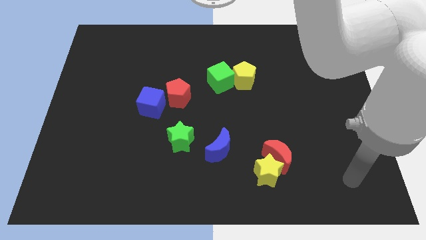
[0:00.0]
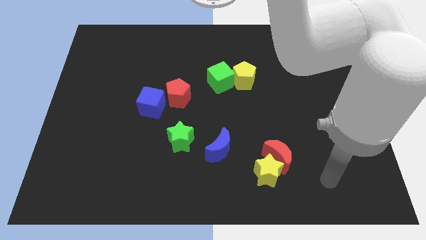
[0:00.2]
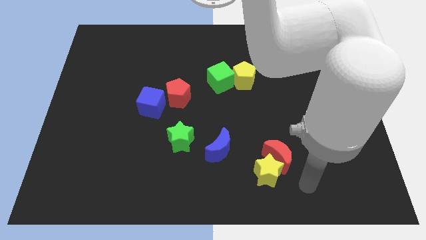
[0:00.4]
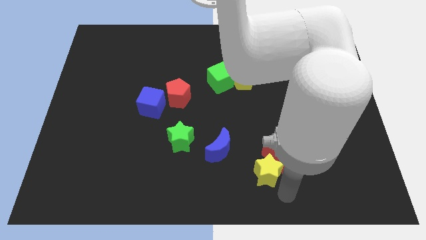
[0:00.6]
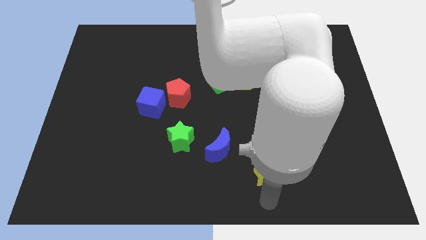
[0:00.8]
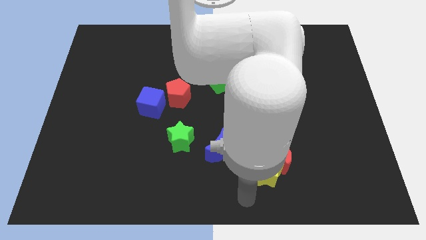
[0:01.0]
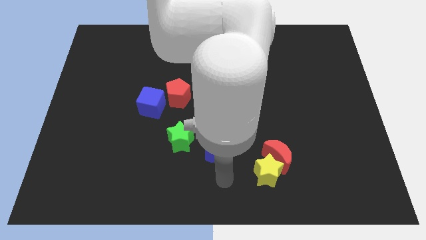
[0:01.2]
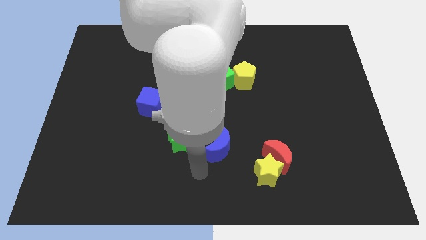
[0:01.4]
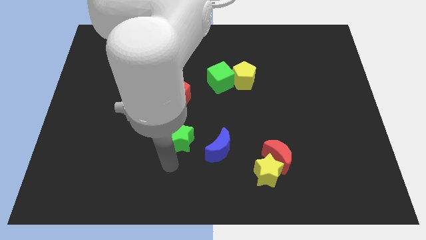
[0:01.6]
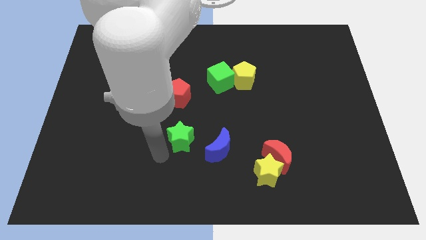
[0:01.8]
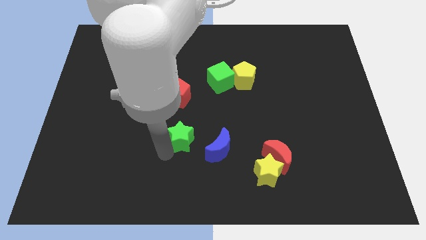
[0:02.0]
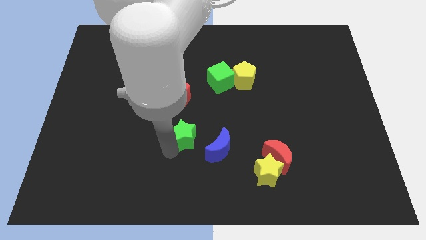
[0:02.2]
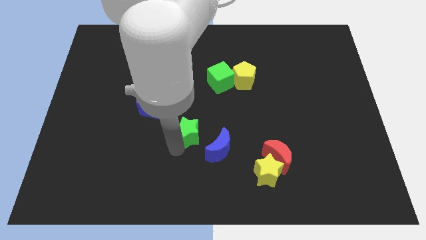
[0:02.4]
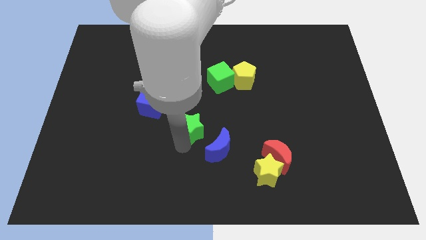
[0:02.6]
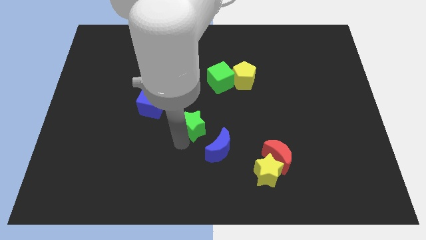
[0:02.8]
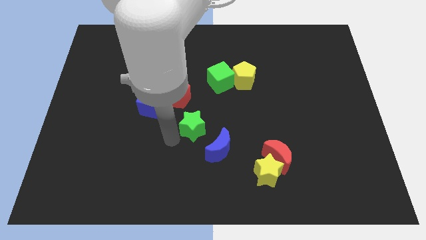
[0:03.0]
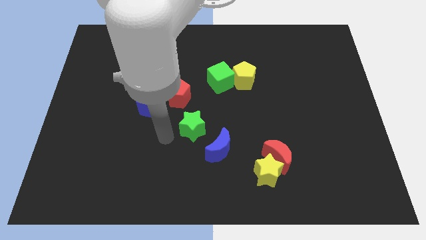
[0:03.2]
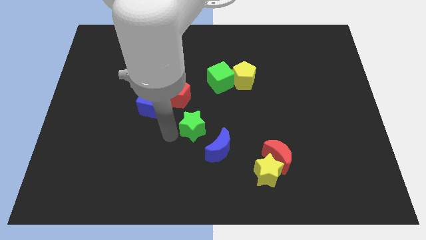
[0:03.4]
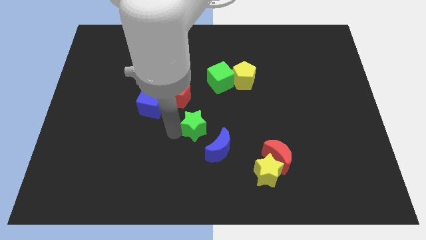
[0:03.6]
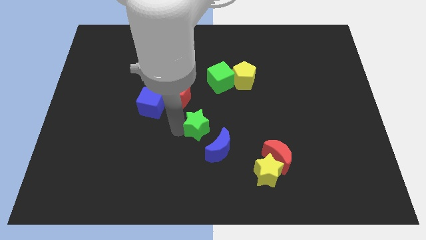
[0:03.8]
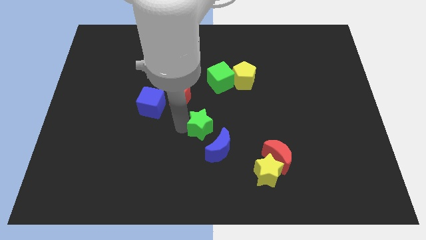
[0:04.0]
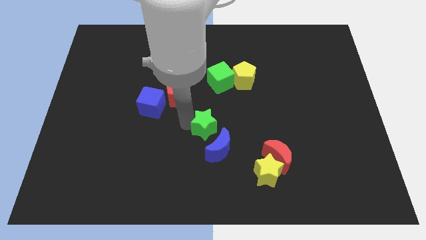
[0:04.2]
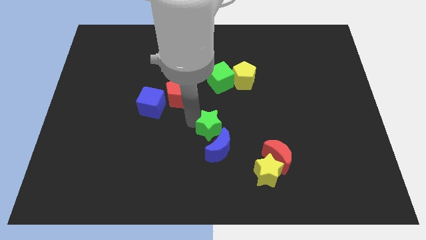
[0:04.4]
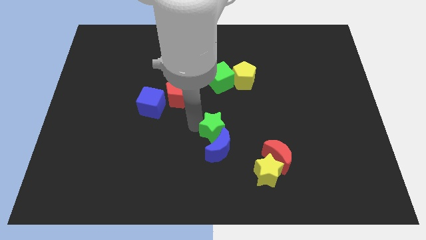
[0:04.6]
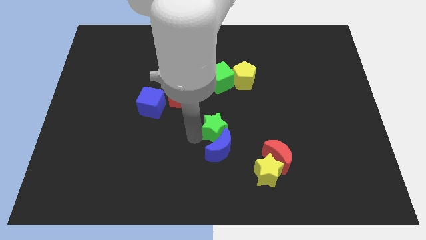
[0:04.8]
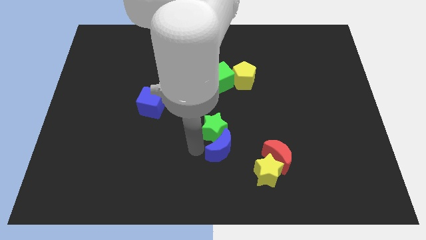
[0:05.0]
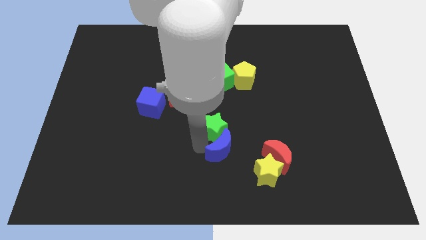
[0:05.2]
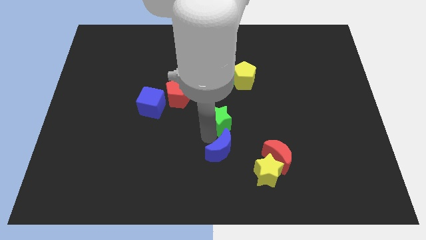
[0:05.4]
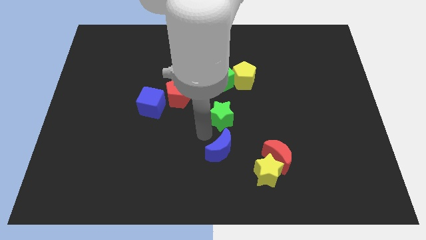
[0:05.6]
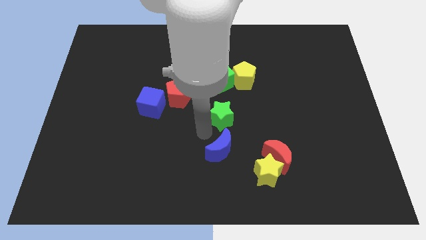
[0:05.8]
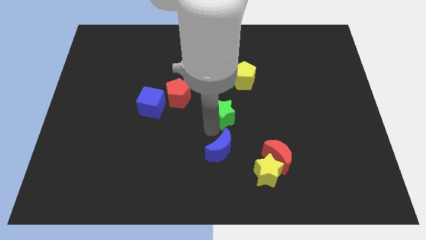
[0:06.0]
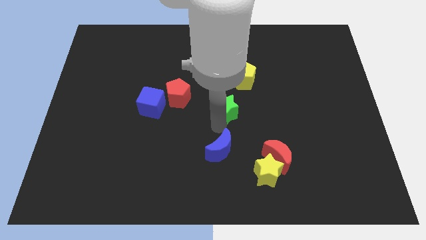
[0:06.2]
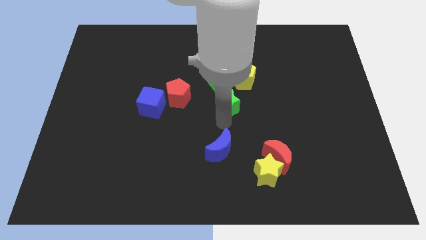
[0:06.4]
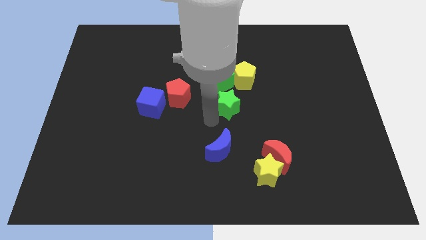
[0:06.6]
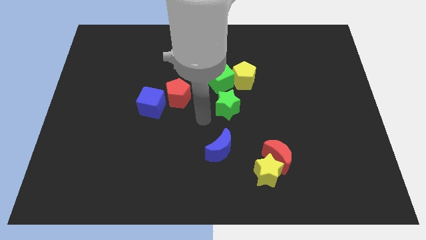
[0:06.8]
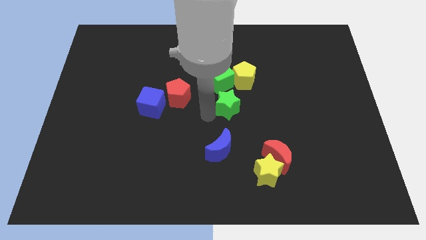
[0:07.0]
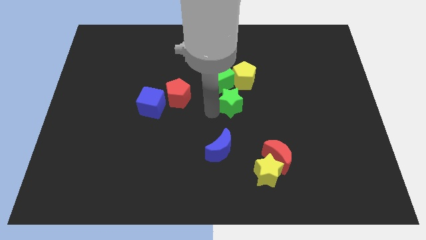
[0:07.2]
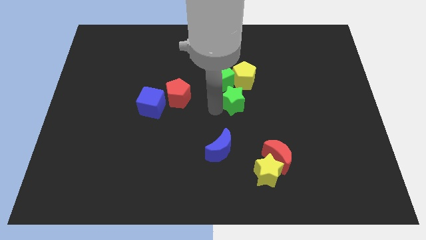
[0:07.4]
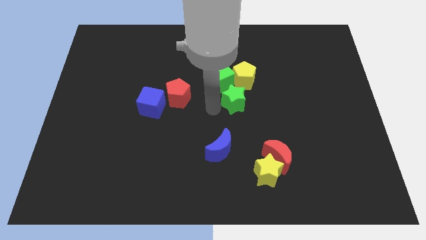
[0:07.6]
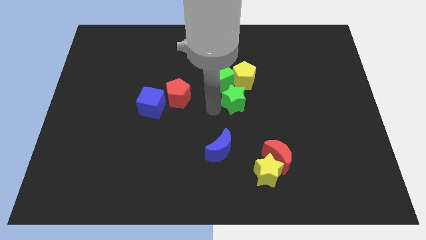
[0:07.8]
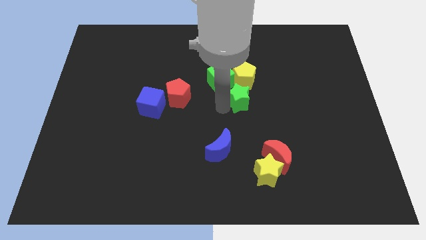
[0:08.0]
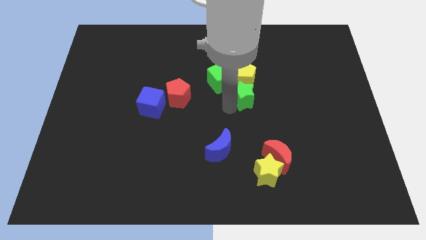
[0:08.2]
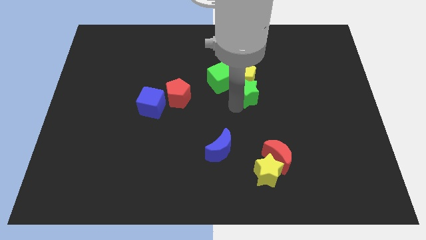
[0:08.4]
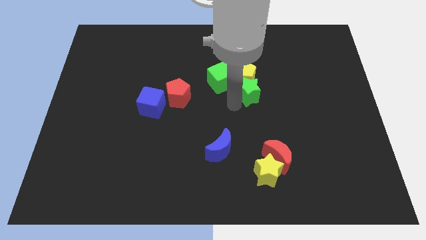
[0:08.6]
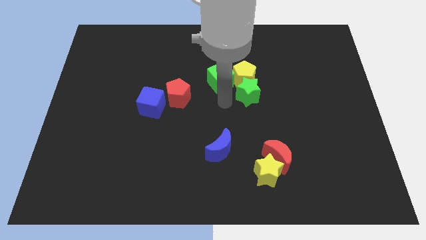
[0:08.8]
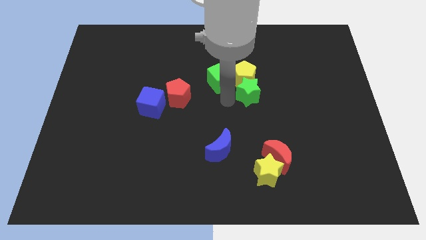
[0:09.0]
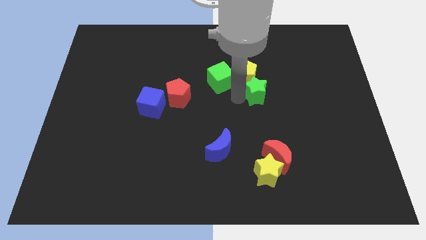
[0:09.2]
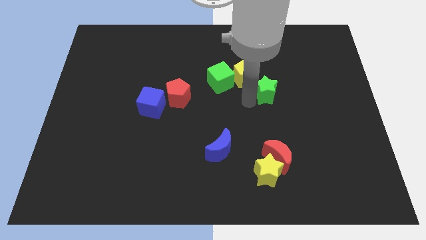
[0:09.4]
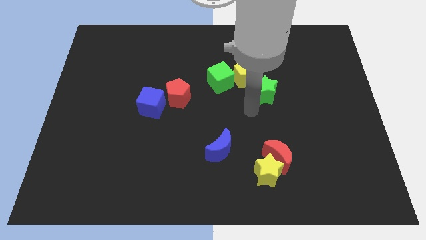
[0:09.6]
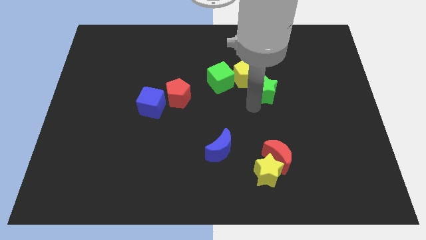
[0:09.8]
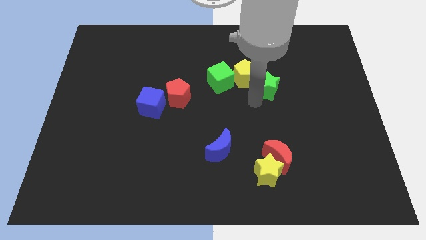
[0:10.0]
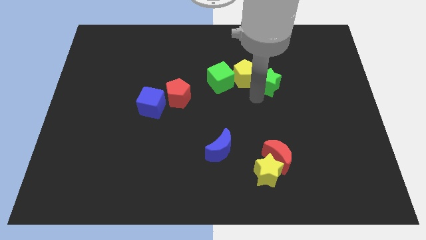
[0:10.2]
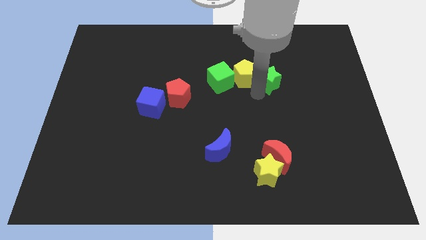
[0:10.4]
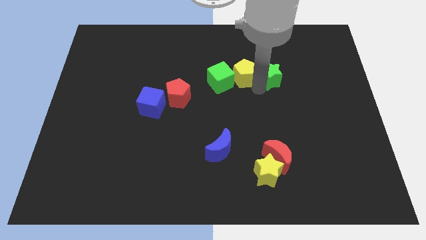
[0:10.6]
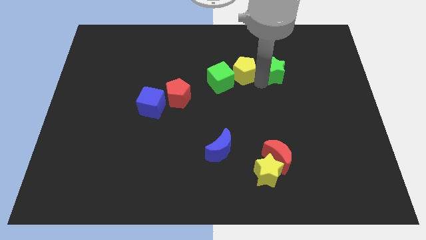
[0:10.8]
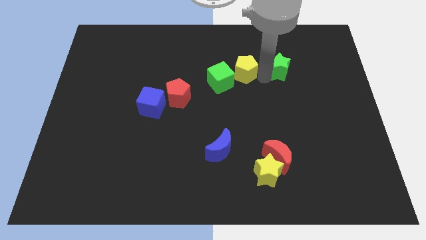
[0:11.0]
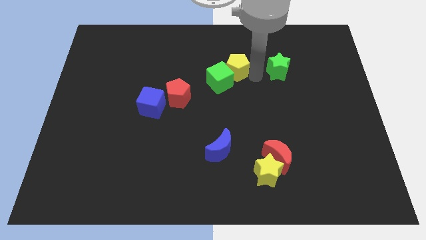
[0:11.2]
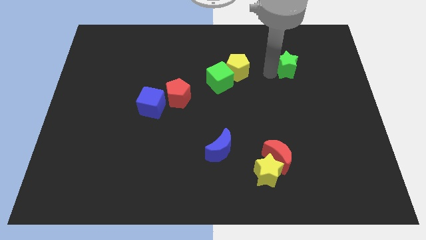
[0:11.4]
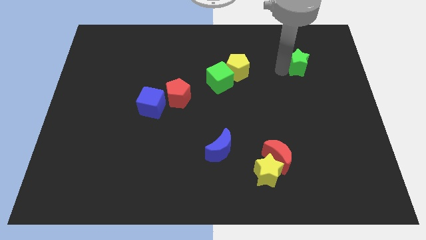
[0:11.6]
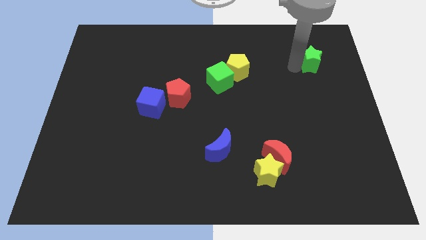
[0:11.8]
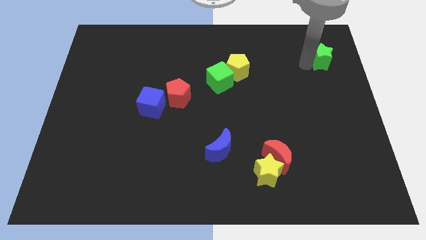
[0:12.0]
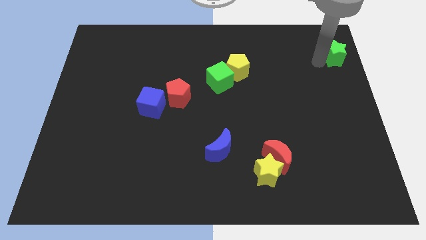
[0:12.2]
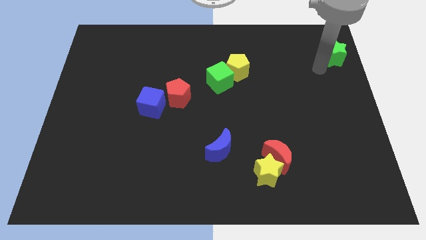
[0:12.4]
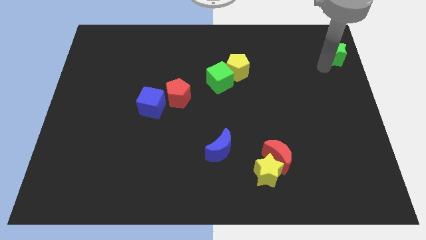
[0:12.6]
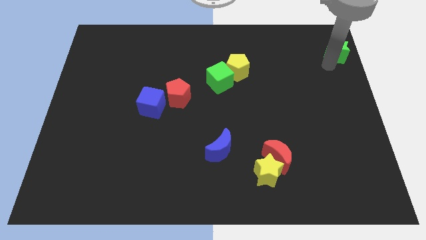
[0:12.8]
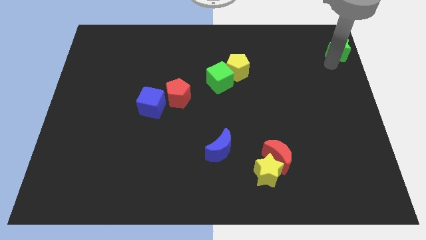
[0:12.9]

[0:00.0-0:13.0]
move the green star to the top right corner

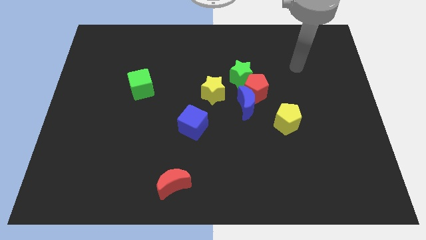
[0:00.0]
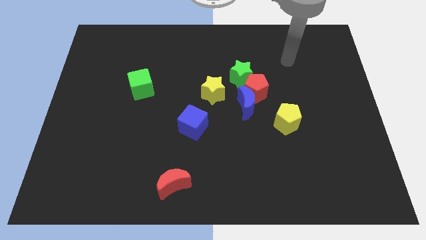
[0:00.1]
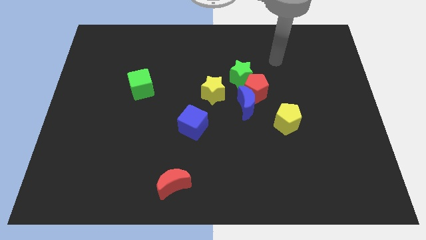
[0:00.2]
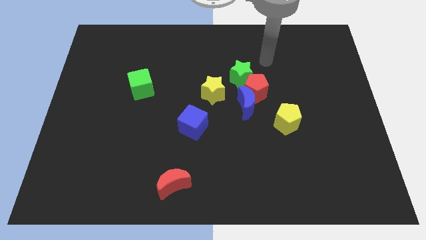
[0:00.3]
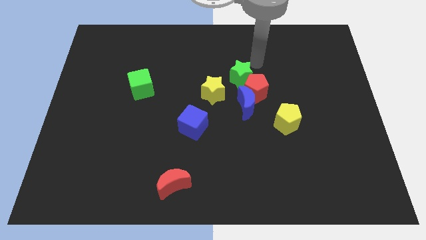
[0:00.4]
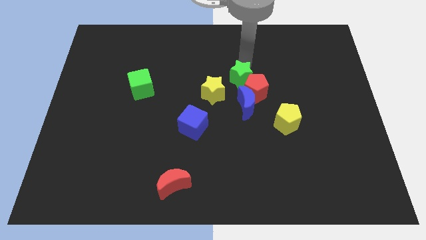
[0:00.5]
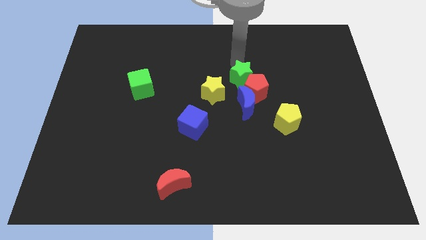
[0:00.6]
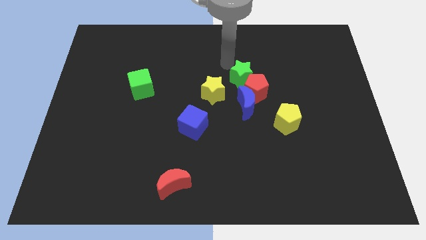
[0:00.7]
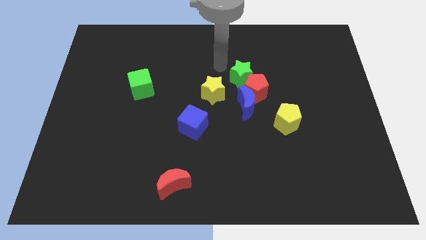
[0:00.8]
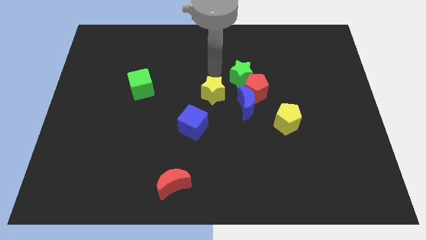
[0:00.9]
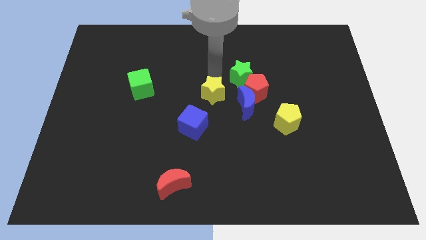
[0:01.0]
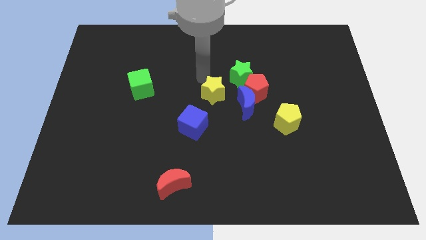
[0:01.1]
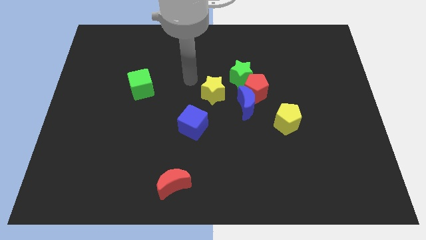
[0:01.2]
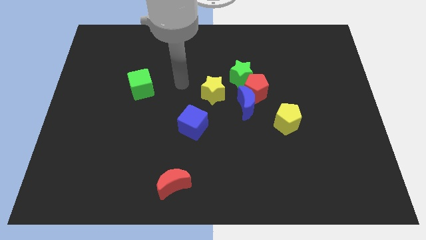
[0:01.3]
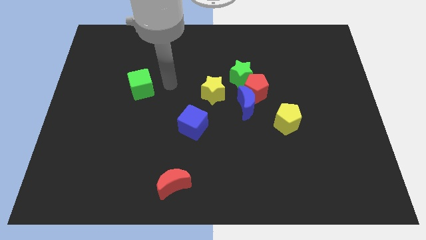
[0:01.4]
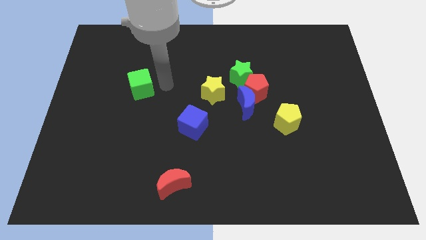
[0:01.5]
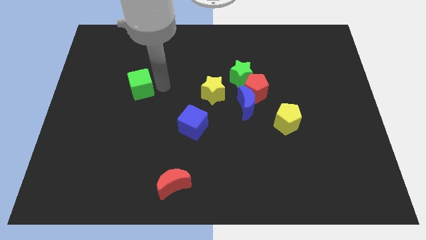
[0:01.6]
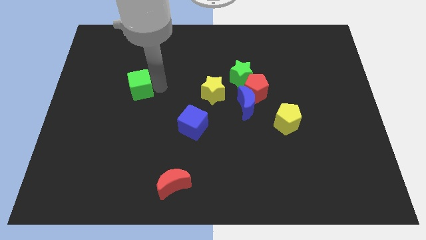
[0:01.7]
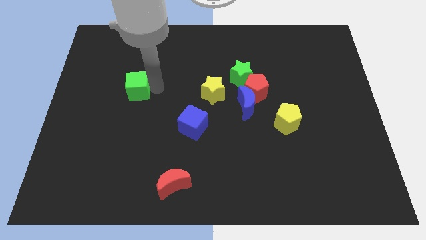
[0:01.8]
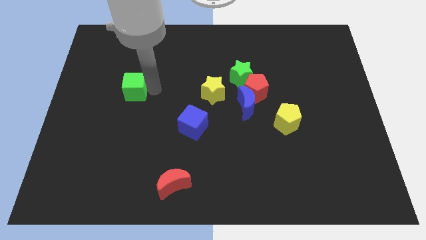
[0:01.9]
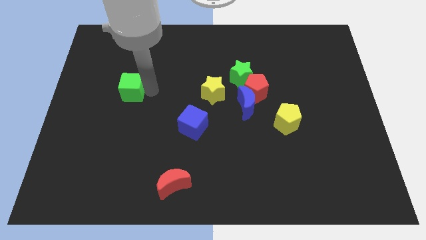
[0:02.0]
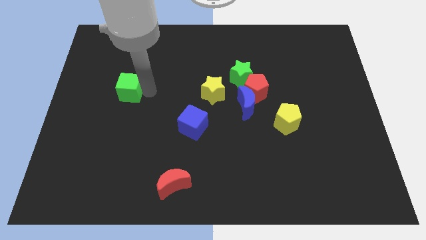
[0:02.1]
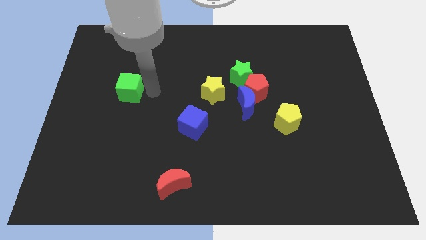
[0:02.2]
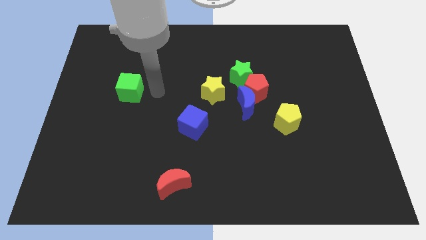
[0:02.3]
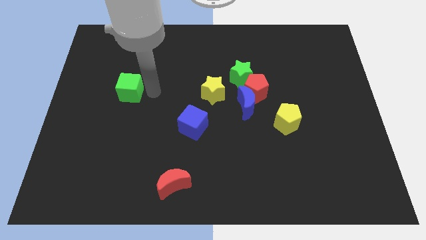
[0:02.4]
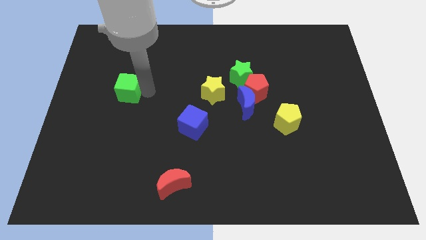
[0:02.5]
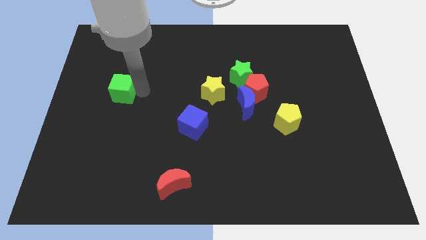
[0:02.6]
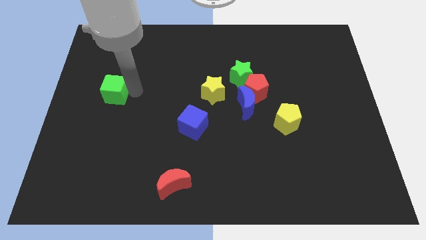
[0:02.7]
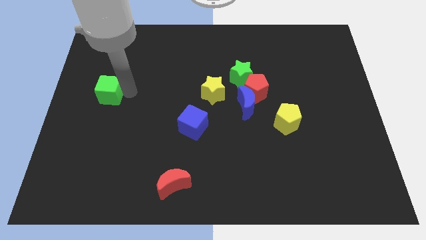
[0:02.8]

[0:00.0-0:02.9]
move the green cube to the left side
